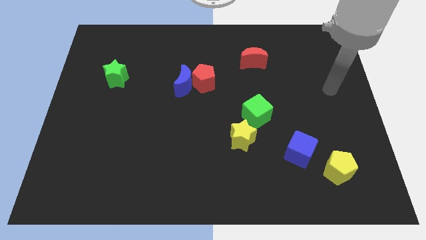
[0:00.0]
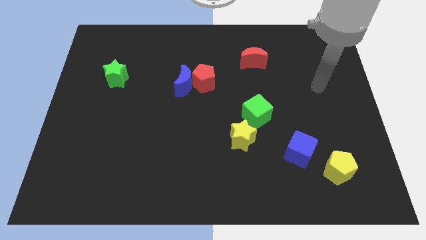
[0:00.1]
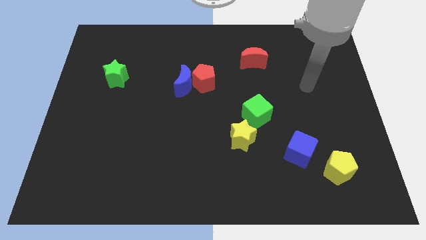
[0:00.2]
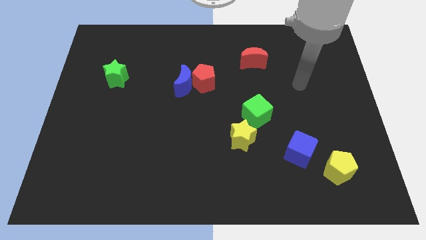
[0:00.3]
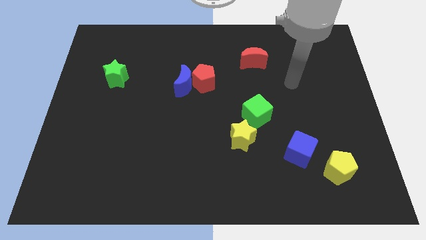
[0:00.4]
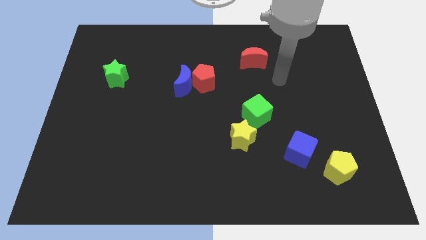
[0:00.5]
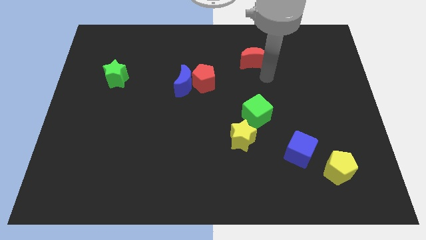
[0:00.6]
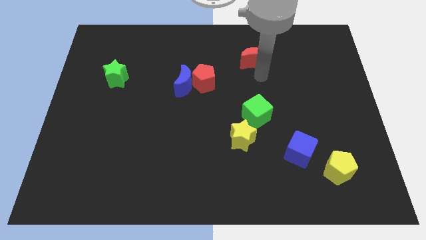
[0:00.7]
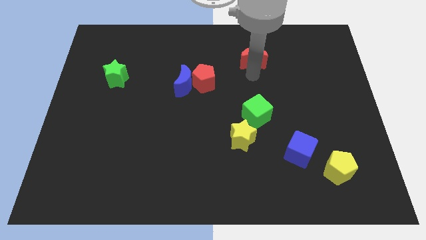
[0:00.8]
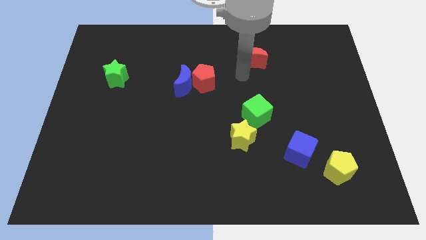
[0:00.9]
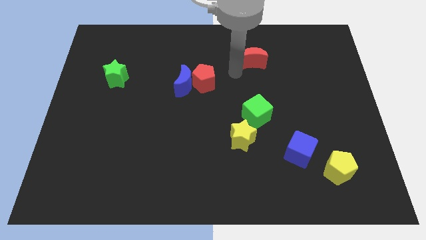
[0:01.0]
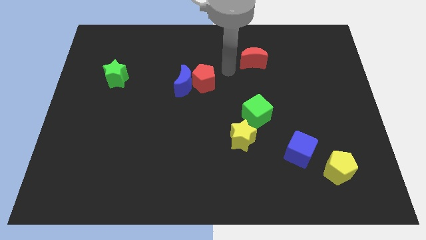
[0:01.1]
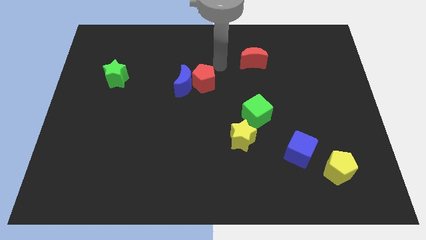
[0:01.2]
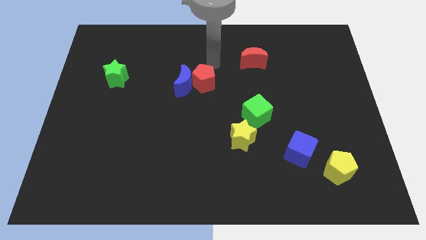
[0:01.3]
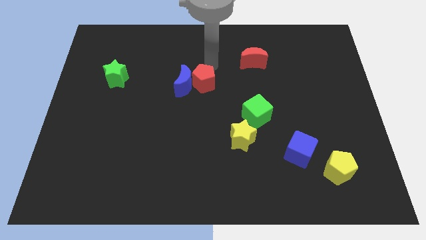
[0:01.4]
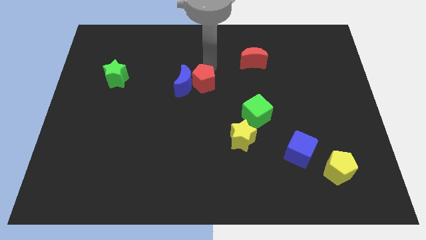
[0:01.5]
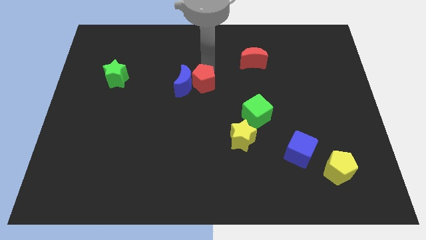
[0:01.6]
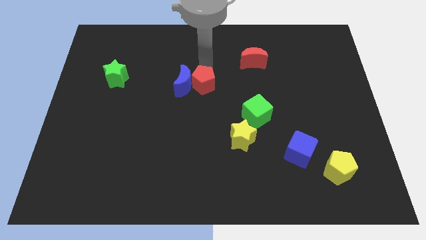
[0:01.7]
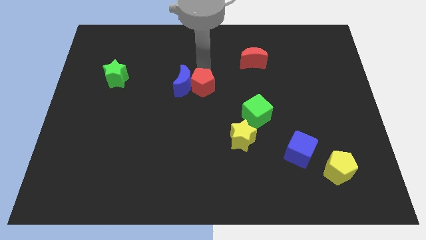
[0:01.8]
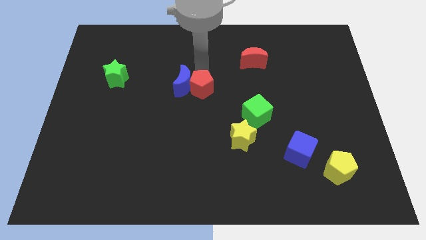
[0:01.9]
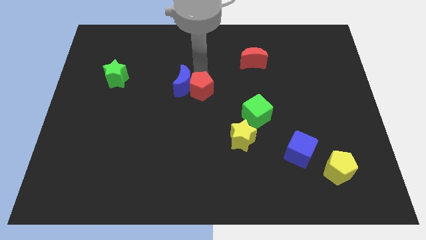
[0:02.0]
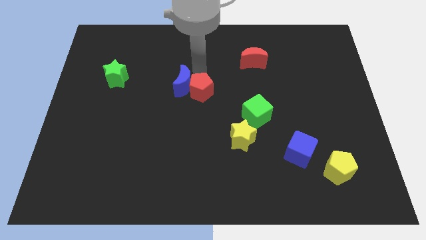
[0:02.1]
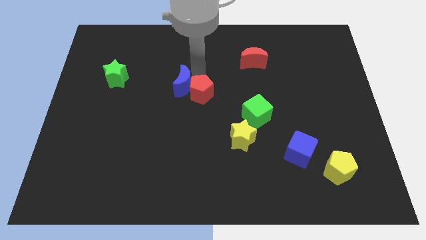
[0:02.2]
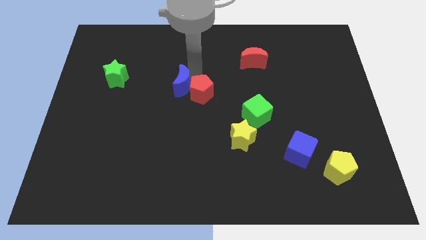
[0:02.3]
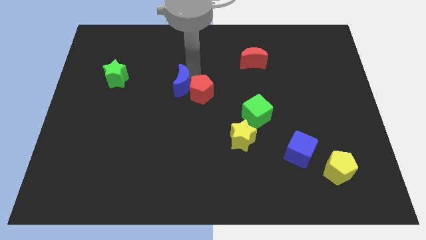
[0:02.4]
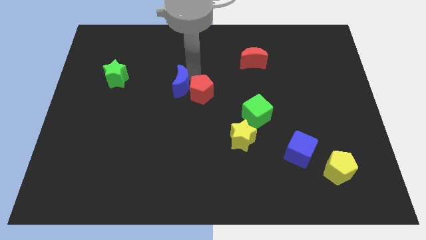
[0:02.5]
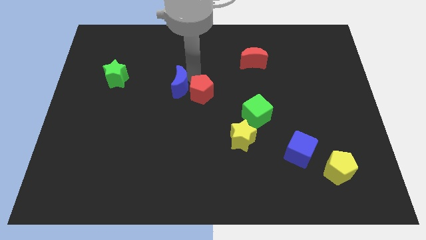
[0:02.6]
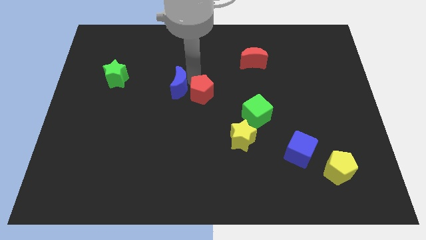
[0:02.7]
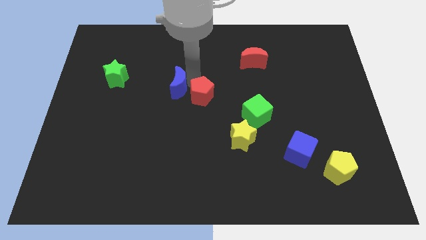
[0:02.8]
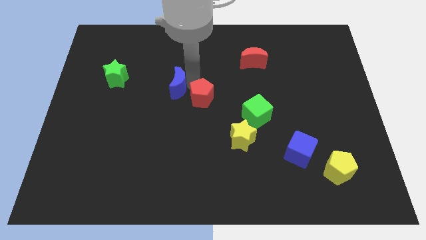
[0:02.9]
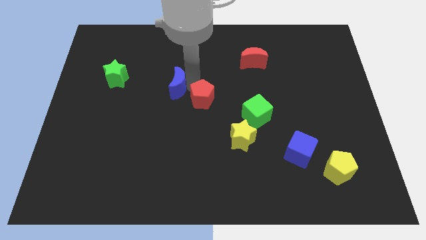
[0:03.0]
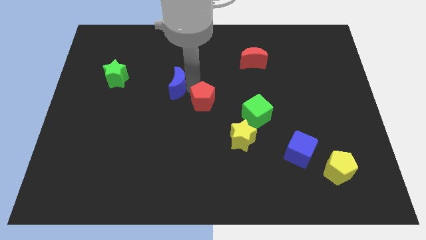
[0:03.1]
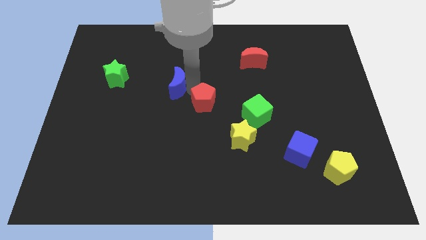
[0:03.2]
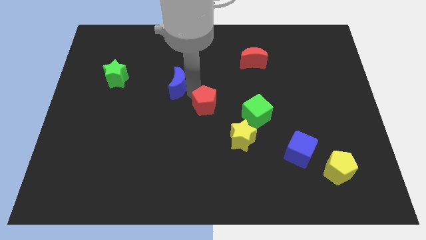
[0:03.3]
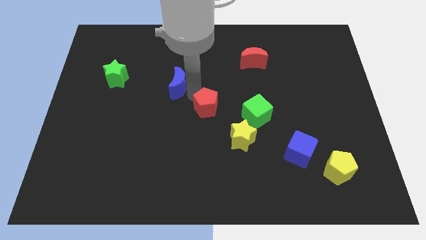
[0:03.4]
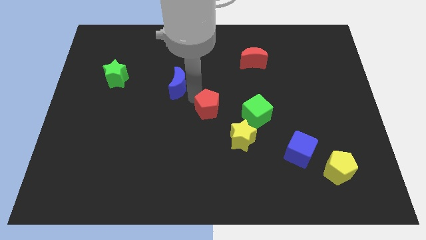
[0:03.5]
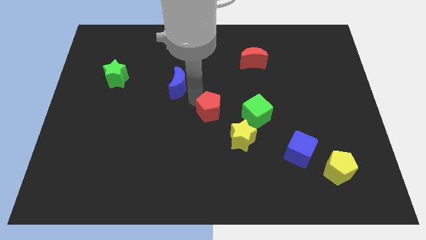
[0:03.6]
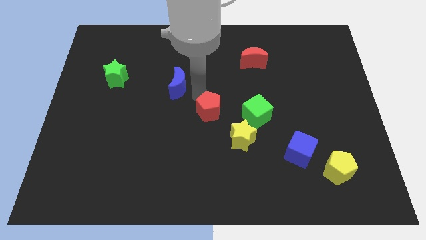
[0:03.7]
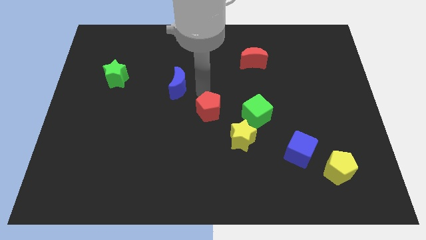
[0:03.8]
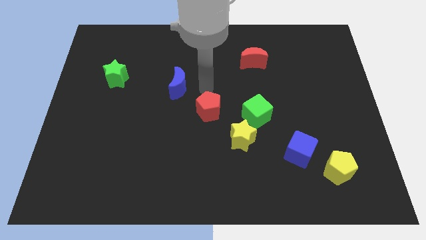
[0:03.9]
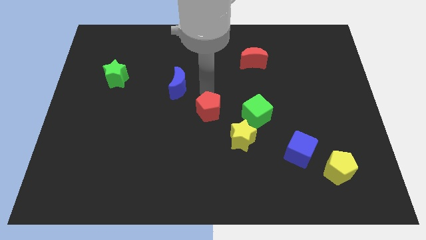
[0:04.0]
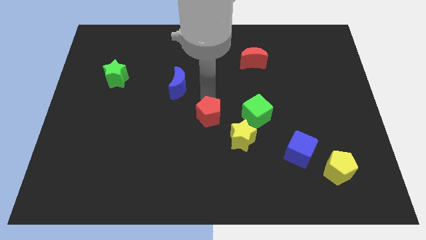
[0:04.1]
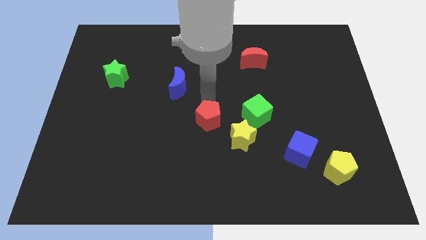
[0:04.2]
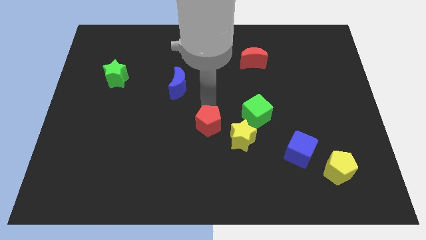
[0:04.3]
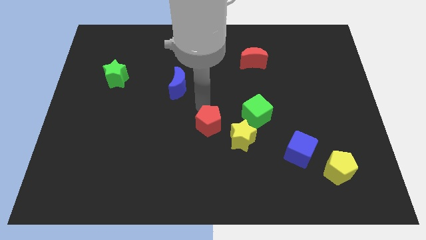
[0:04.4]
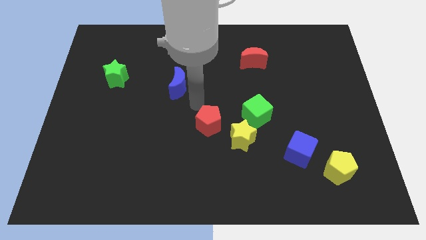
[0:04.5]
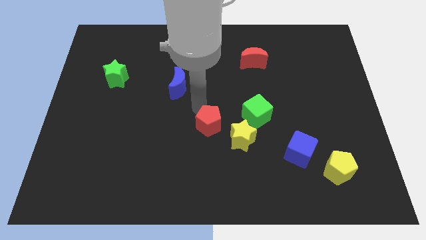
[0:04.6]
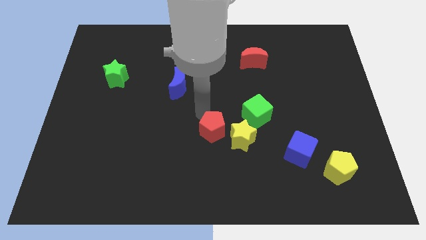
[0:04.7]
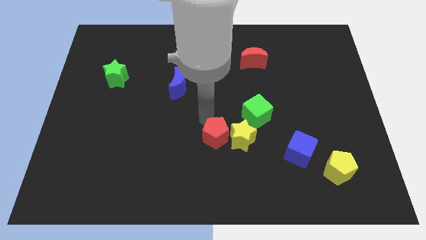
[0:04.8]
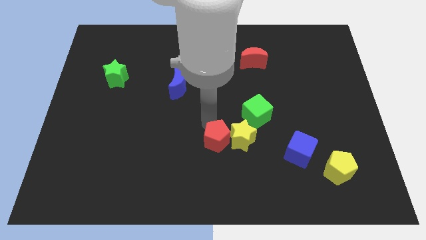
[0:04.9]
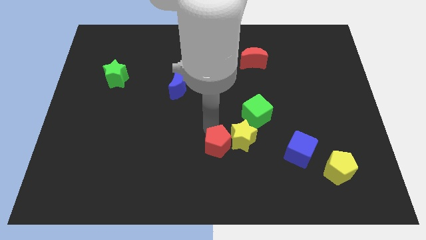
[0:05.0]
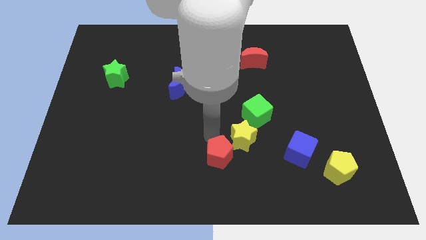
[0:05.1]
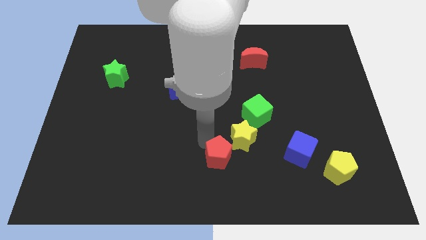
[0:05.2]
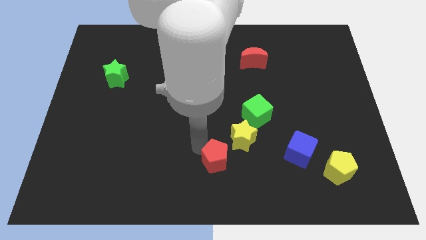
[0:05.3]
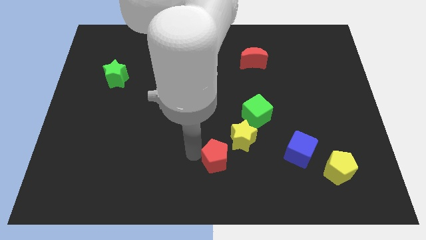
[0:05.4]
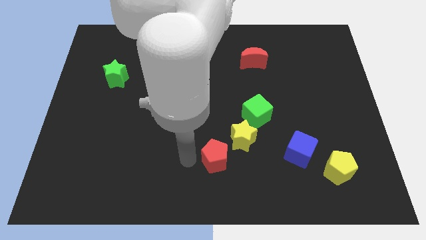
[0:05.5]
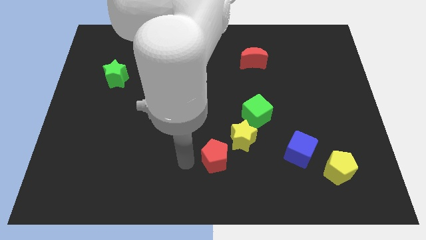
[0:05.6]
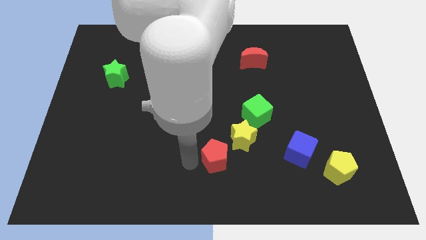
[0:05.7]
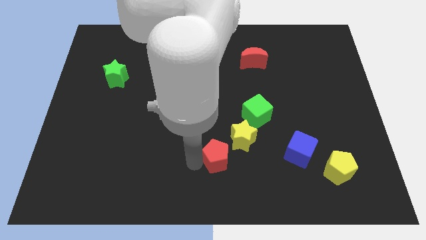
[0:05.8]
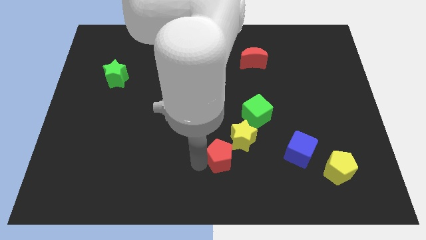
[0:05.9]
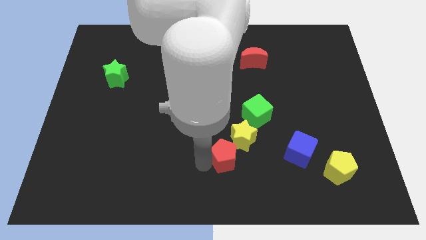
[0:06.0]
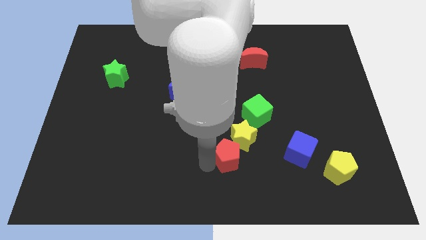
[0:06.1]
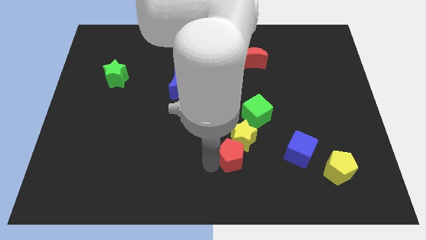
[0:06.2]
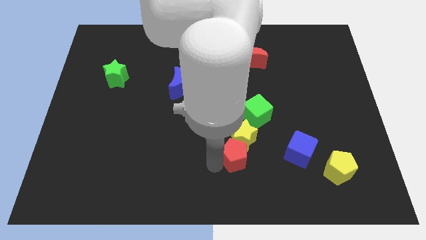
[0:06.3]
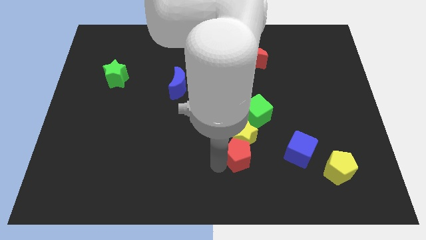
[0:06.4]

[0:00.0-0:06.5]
slide the red pentagon below the green cube

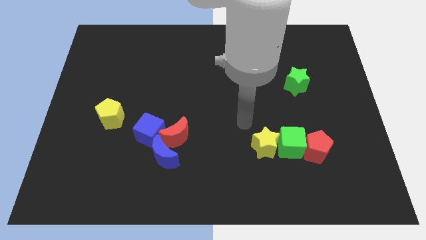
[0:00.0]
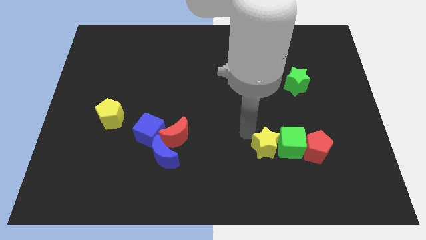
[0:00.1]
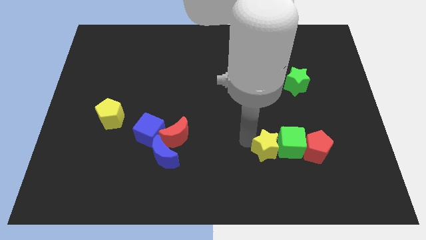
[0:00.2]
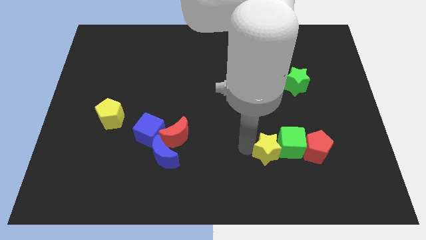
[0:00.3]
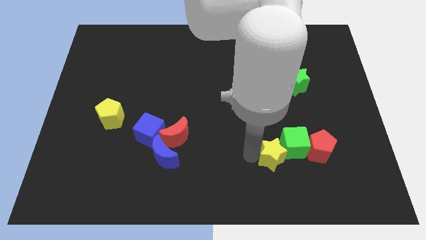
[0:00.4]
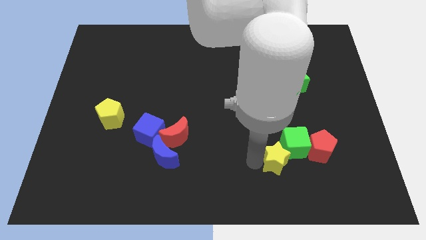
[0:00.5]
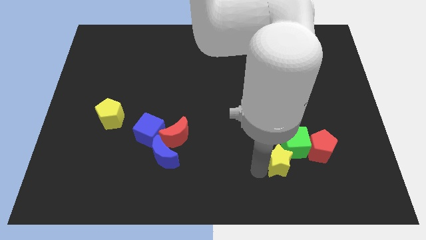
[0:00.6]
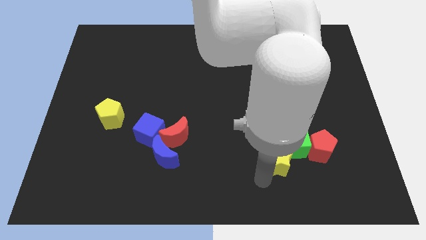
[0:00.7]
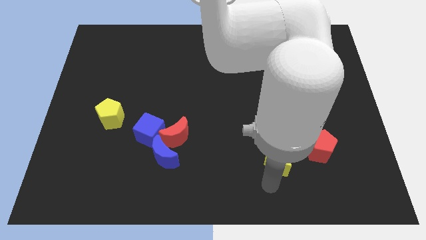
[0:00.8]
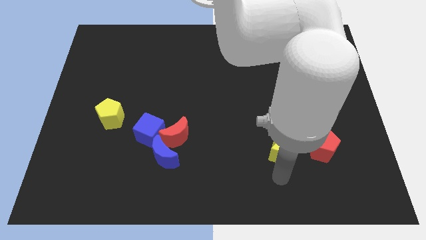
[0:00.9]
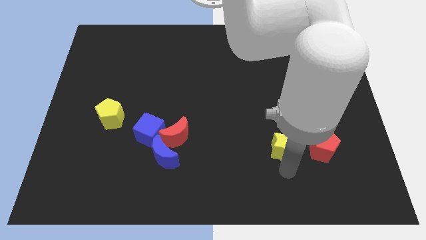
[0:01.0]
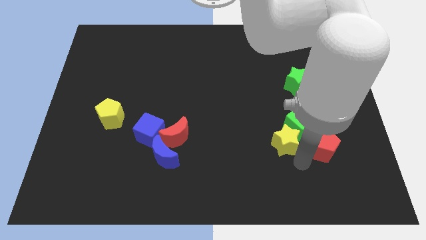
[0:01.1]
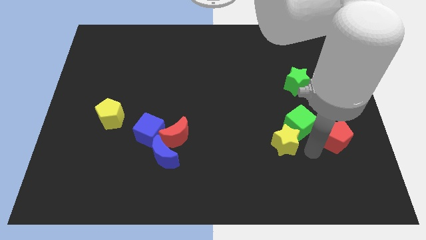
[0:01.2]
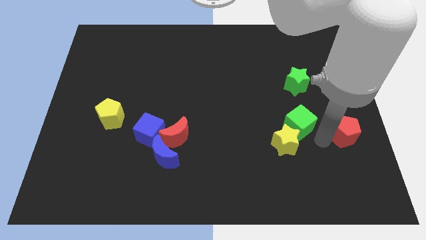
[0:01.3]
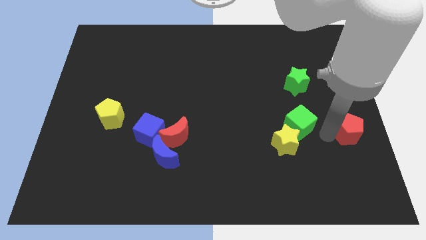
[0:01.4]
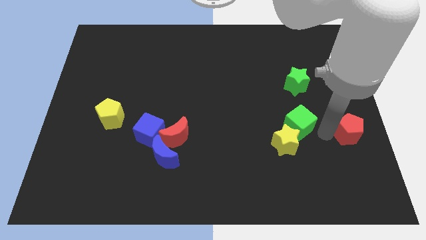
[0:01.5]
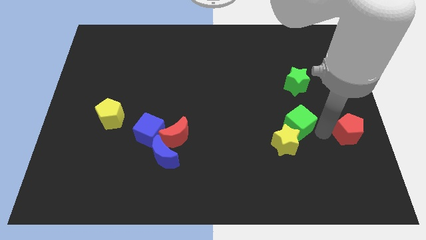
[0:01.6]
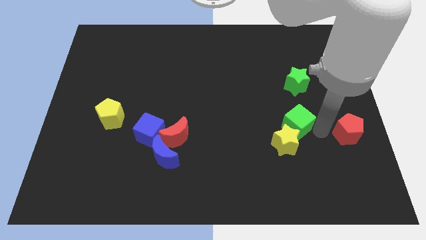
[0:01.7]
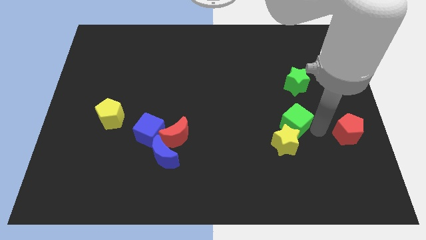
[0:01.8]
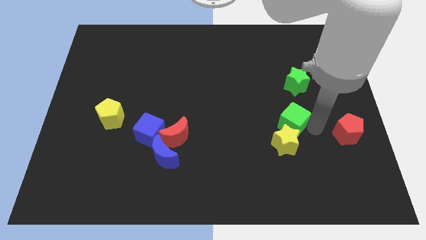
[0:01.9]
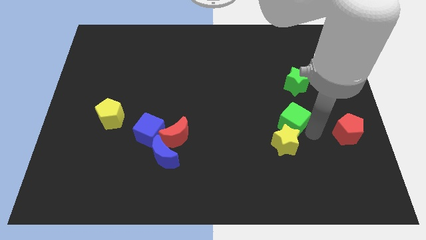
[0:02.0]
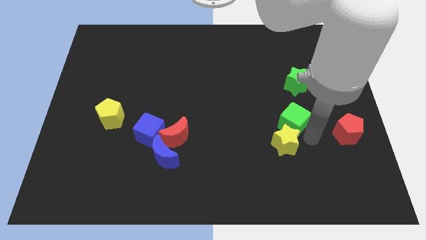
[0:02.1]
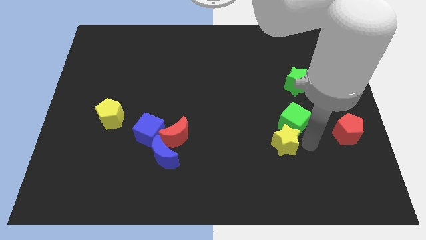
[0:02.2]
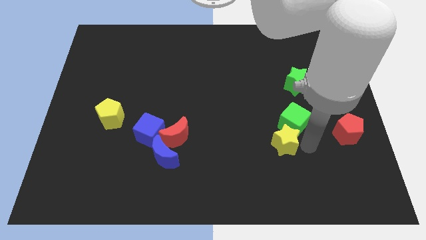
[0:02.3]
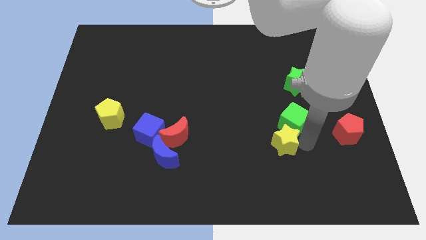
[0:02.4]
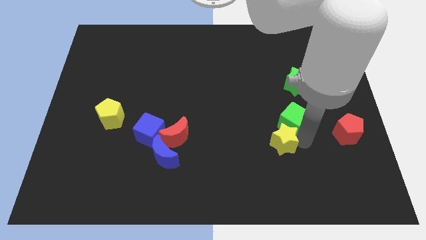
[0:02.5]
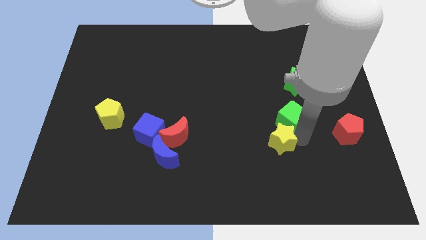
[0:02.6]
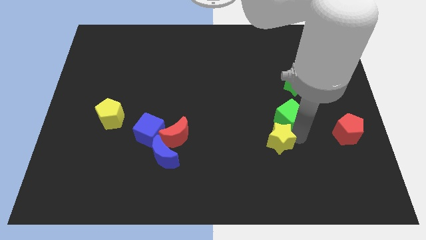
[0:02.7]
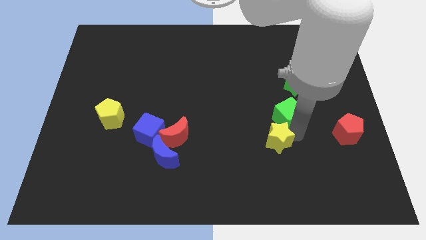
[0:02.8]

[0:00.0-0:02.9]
put the green cube diagonally down and to the left of the green star
